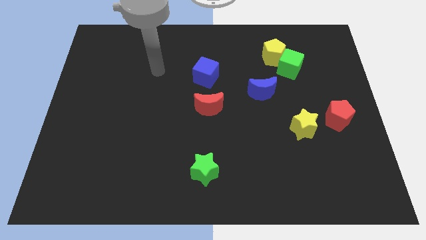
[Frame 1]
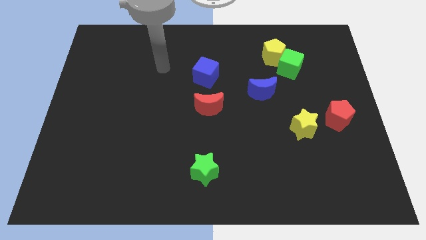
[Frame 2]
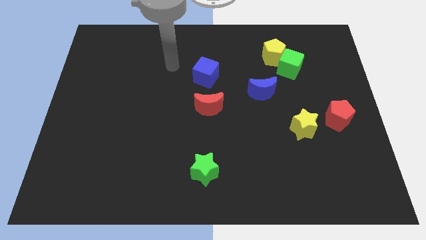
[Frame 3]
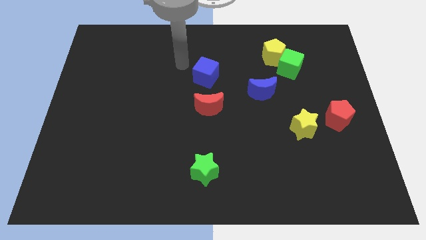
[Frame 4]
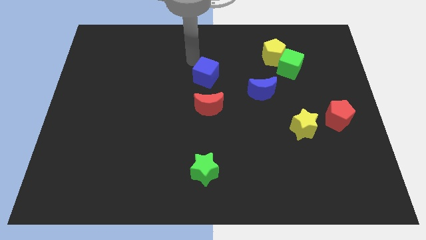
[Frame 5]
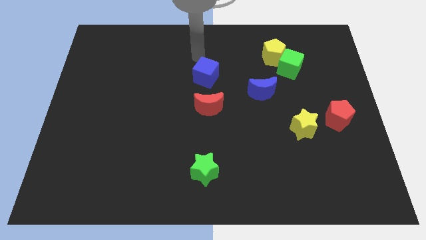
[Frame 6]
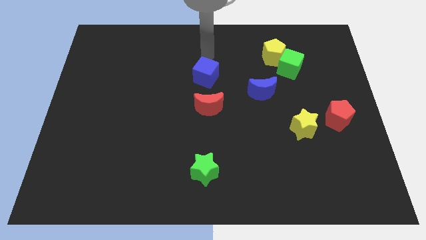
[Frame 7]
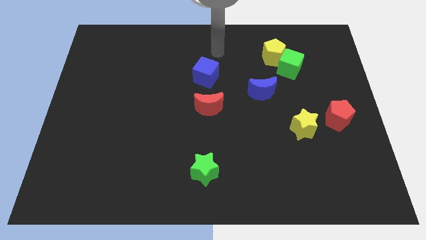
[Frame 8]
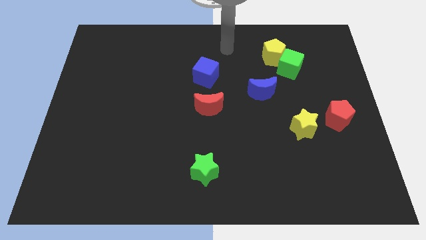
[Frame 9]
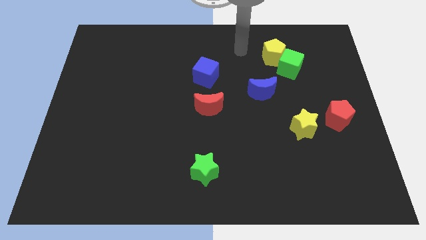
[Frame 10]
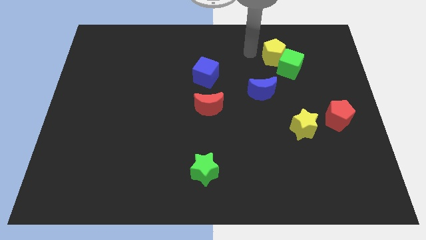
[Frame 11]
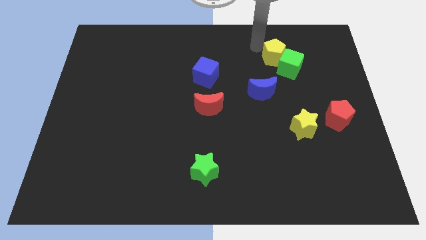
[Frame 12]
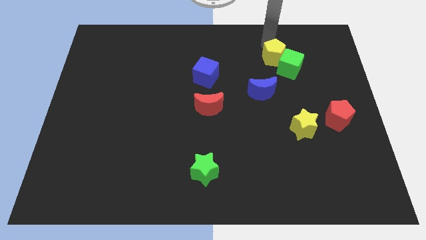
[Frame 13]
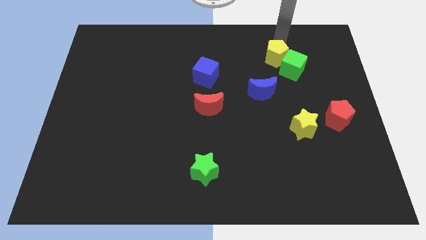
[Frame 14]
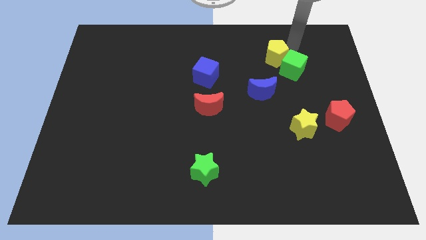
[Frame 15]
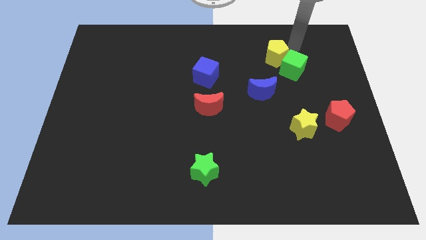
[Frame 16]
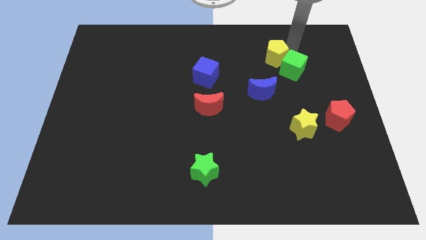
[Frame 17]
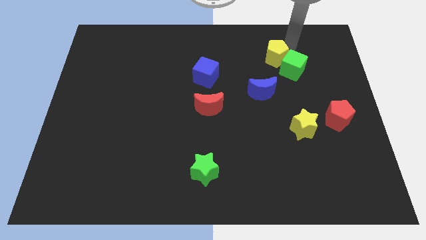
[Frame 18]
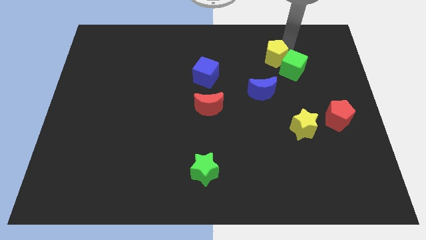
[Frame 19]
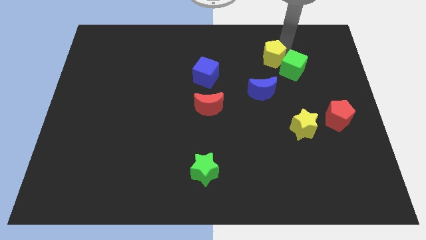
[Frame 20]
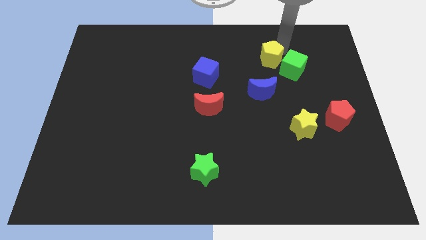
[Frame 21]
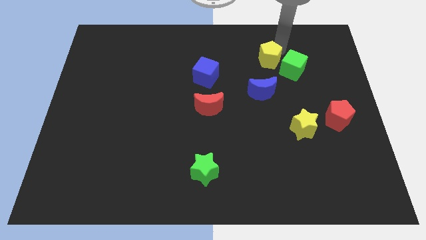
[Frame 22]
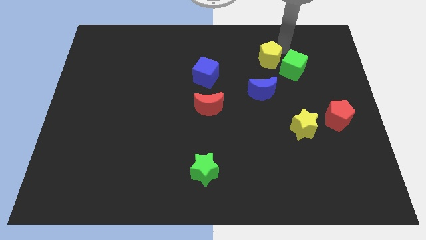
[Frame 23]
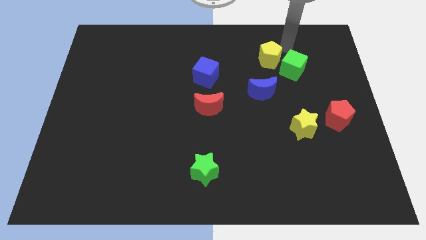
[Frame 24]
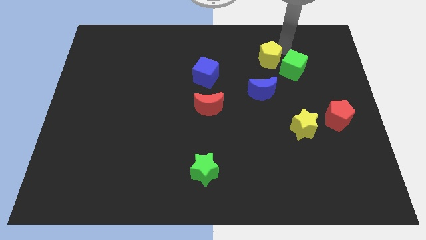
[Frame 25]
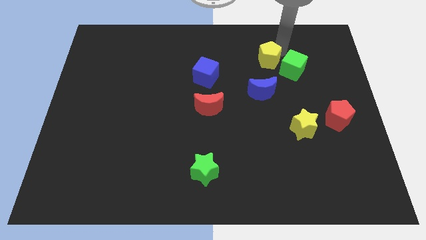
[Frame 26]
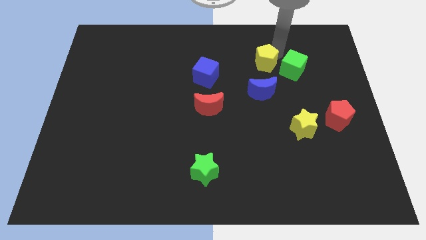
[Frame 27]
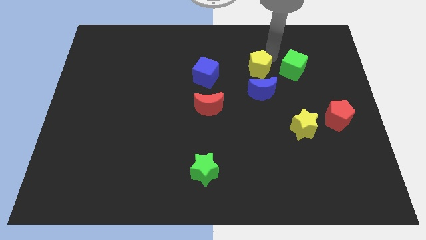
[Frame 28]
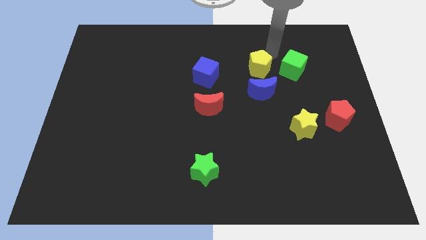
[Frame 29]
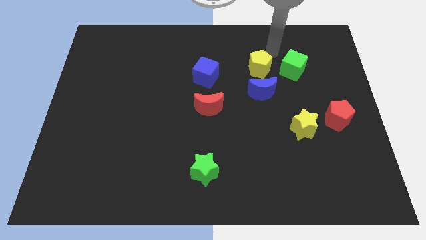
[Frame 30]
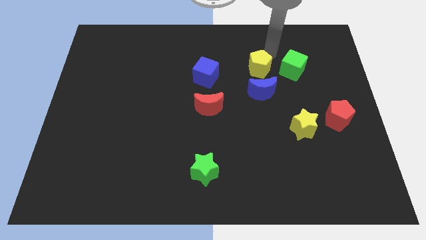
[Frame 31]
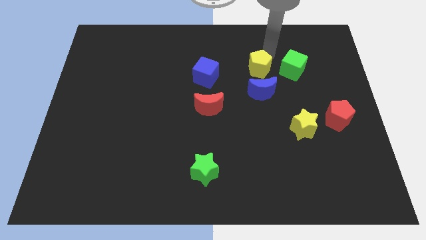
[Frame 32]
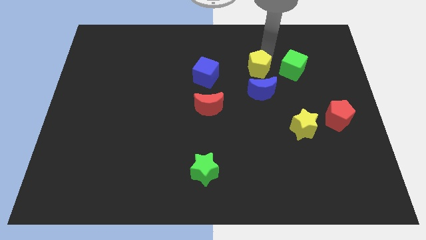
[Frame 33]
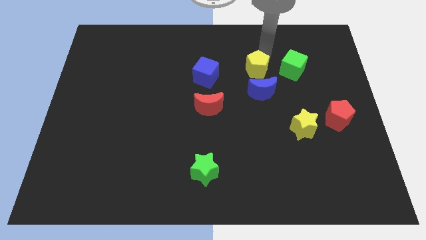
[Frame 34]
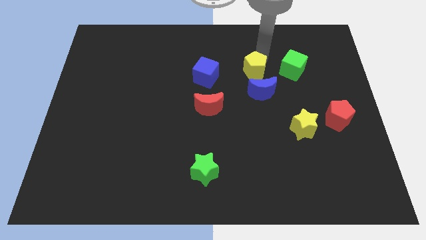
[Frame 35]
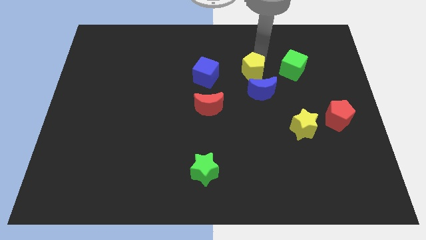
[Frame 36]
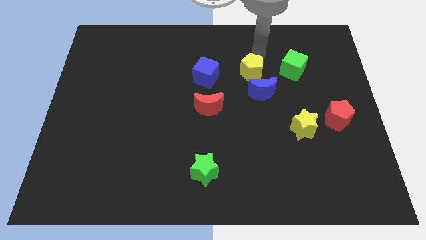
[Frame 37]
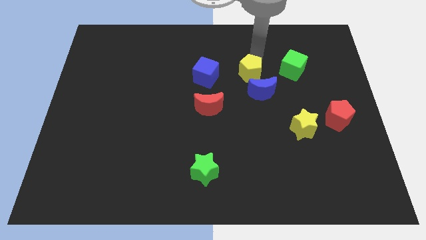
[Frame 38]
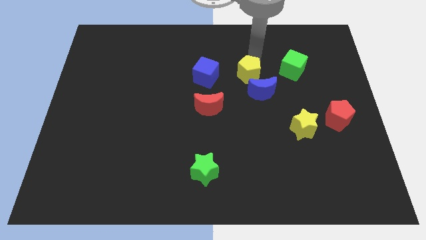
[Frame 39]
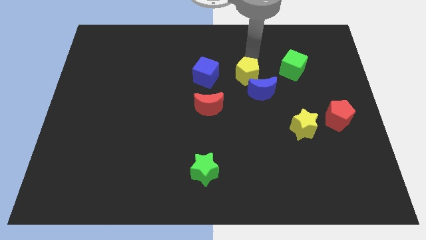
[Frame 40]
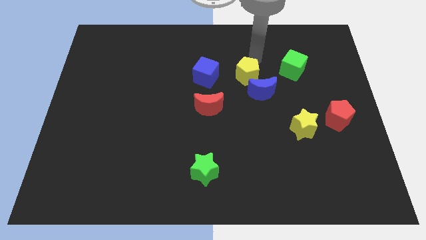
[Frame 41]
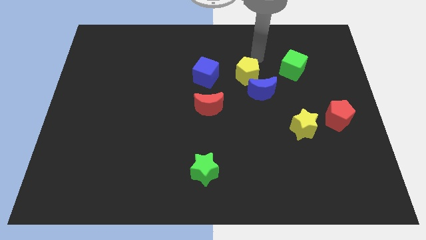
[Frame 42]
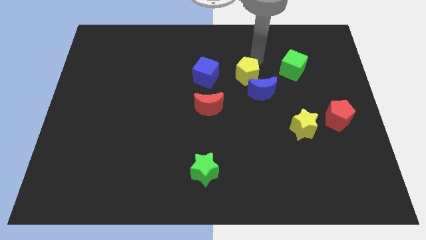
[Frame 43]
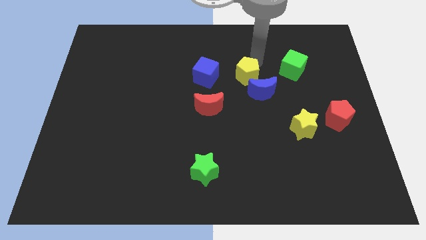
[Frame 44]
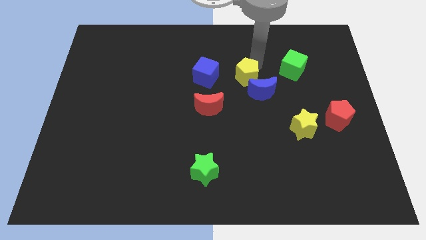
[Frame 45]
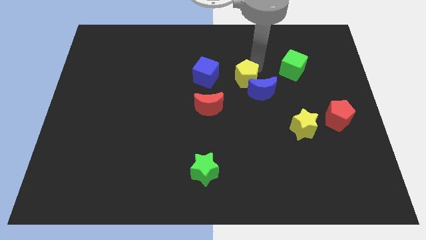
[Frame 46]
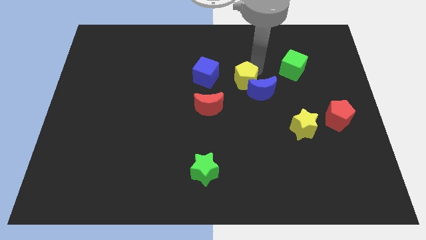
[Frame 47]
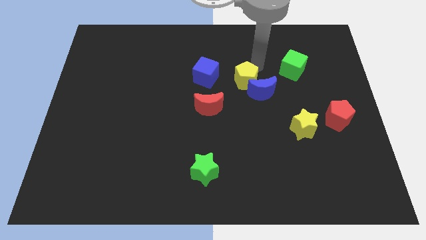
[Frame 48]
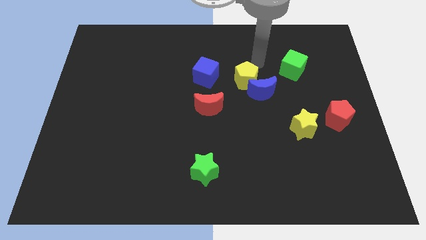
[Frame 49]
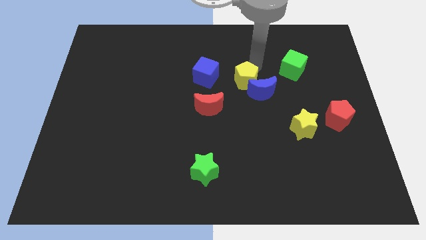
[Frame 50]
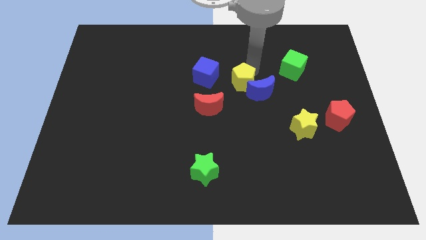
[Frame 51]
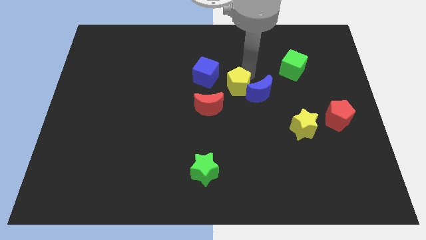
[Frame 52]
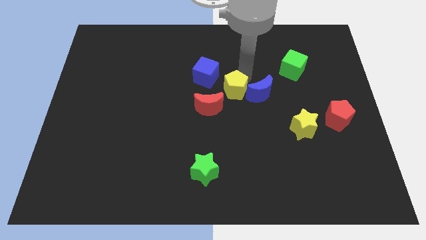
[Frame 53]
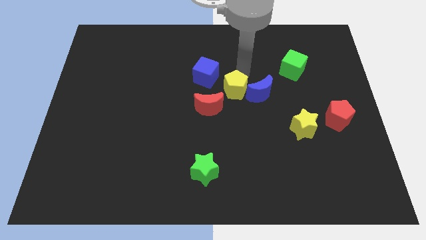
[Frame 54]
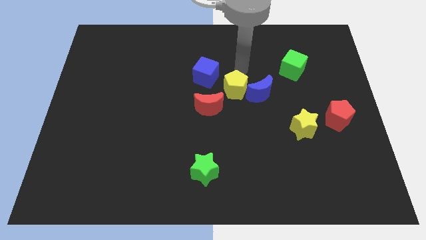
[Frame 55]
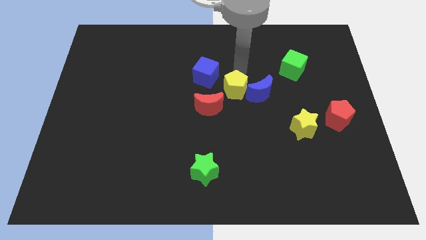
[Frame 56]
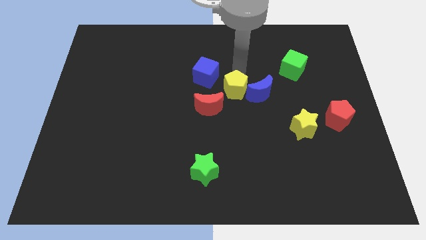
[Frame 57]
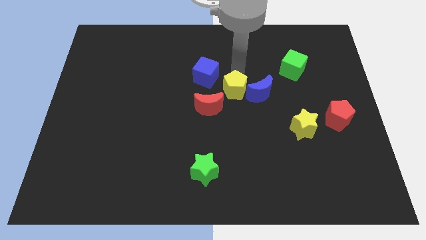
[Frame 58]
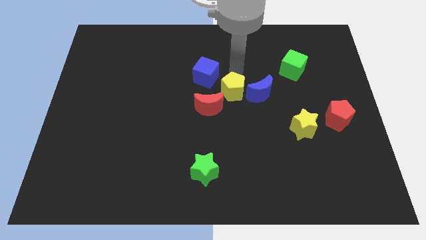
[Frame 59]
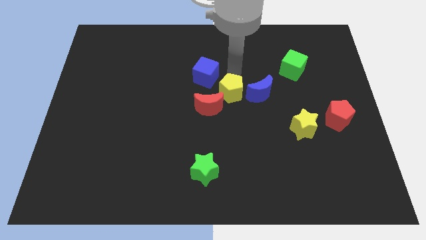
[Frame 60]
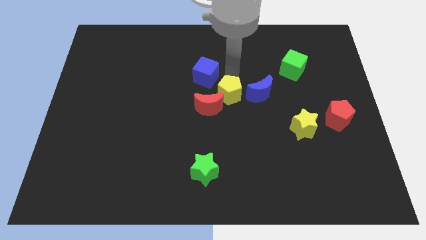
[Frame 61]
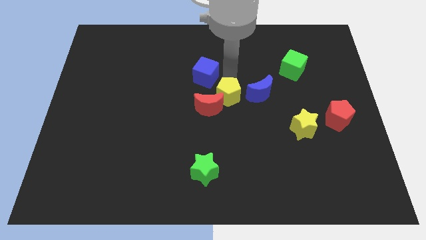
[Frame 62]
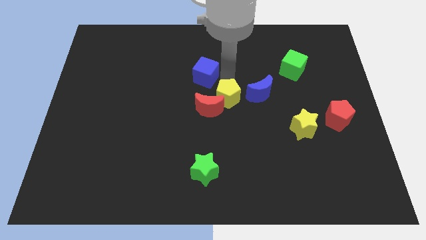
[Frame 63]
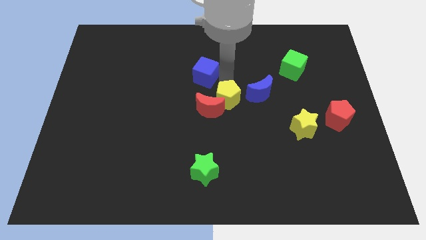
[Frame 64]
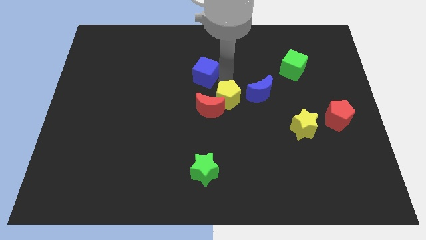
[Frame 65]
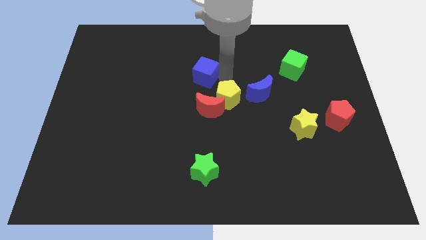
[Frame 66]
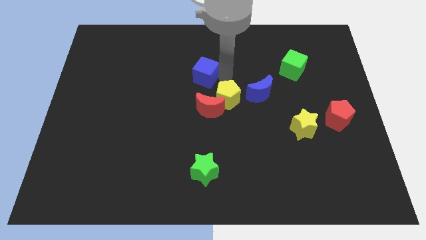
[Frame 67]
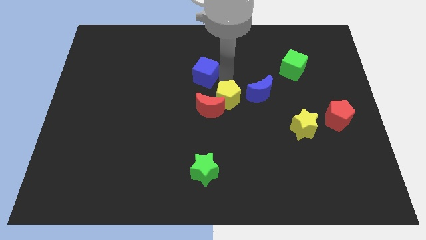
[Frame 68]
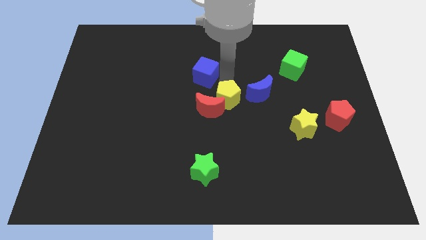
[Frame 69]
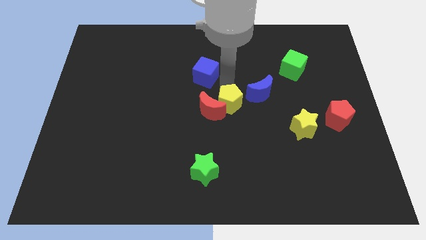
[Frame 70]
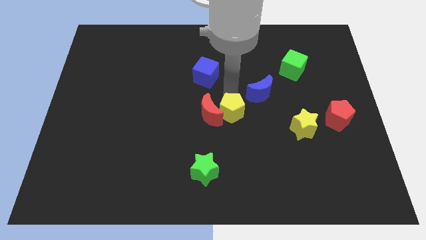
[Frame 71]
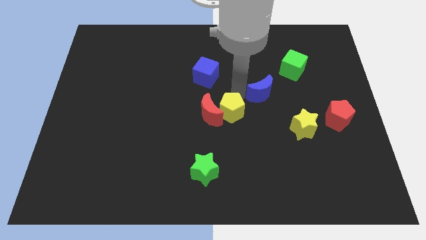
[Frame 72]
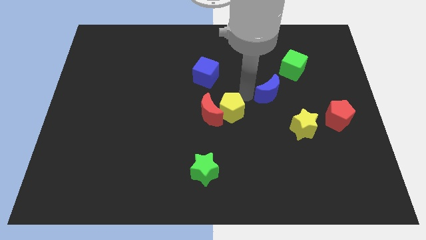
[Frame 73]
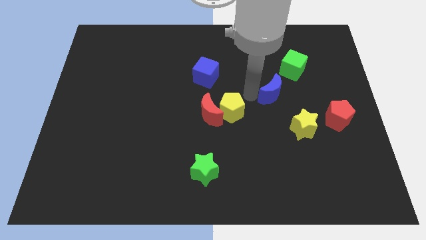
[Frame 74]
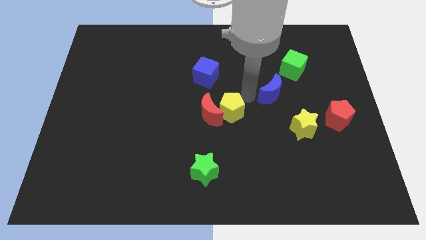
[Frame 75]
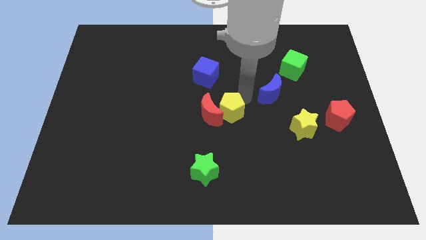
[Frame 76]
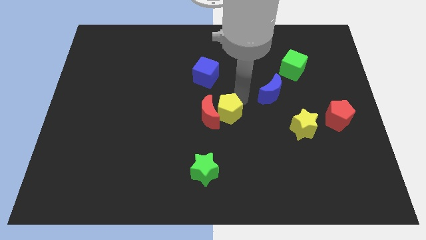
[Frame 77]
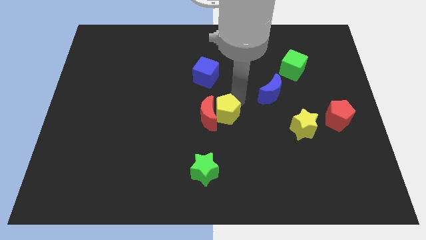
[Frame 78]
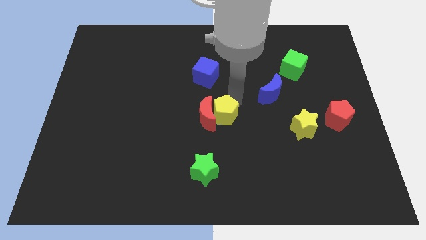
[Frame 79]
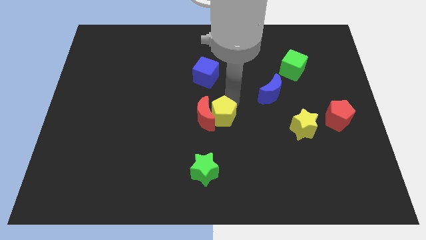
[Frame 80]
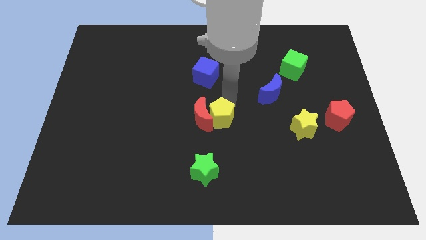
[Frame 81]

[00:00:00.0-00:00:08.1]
slide the yellow pentagon to the top of the green star
